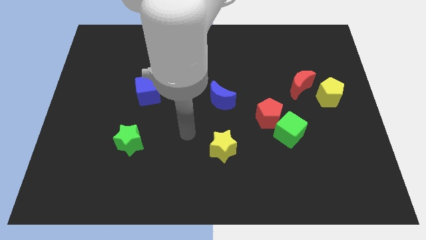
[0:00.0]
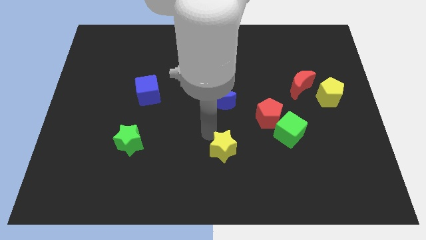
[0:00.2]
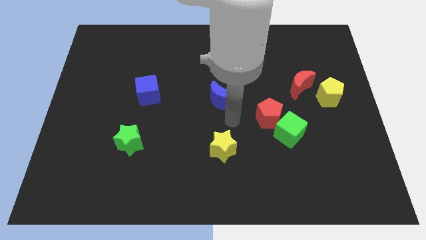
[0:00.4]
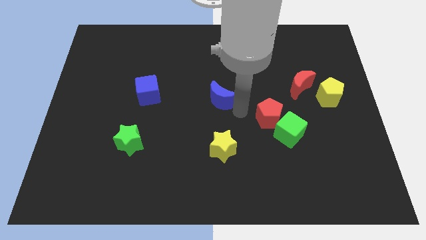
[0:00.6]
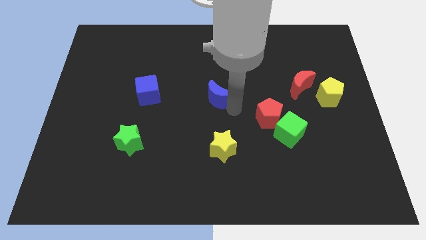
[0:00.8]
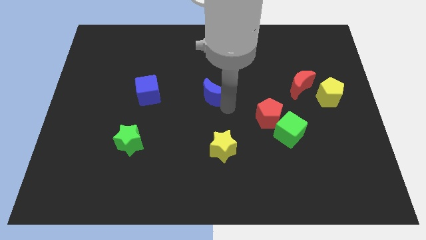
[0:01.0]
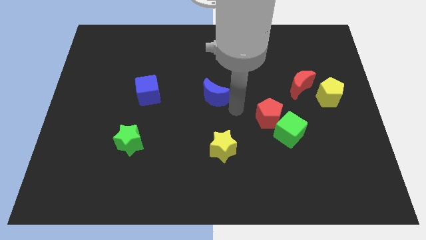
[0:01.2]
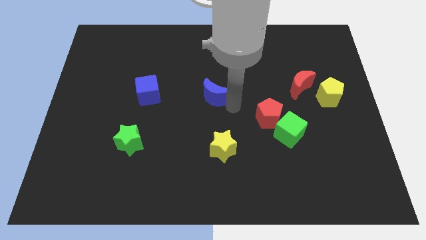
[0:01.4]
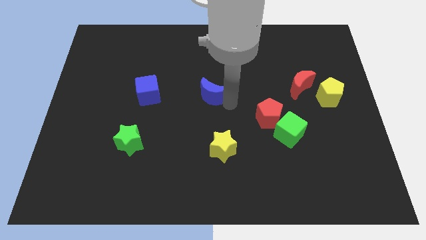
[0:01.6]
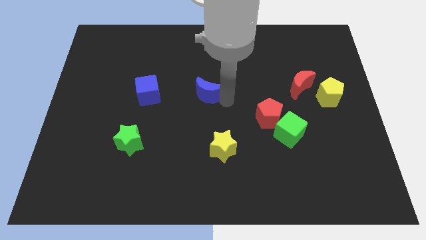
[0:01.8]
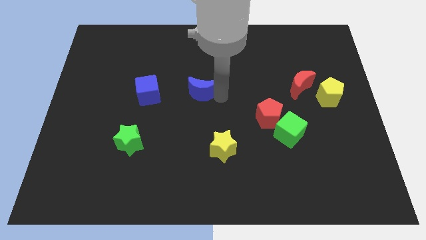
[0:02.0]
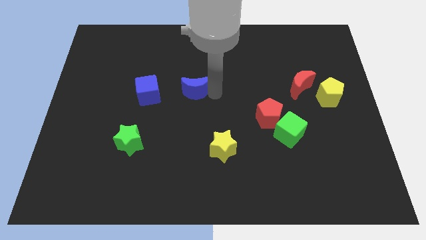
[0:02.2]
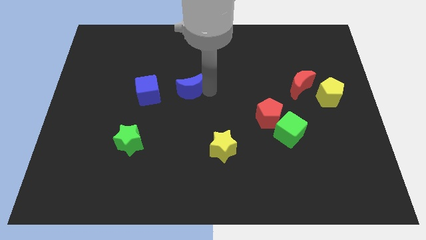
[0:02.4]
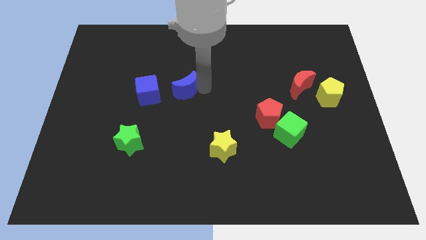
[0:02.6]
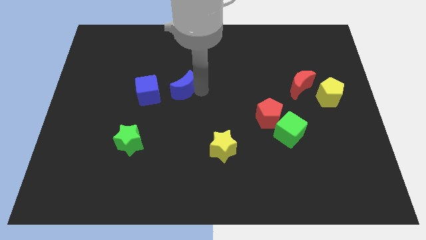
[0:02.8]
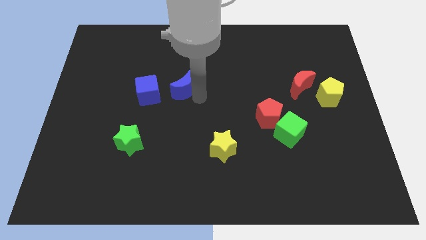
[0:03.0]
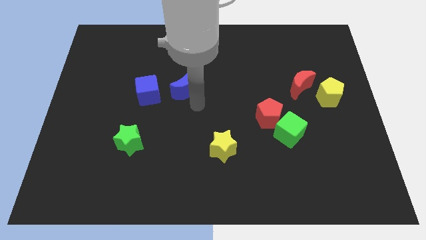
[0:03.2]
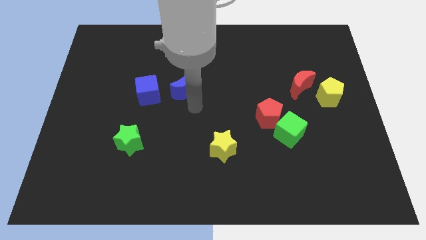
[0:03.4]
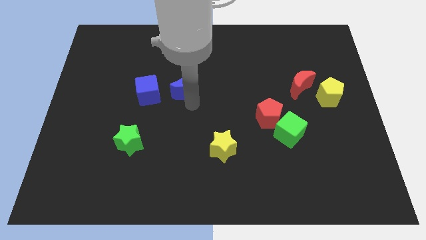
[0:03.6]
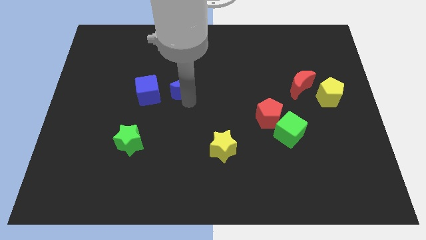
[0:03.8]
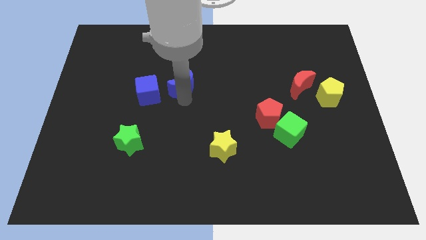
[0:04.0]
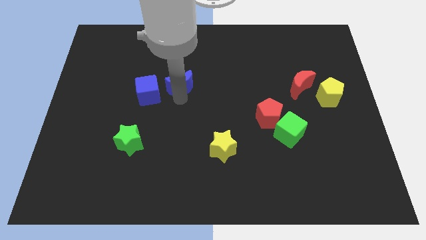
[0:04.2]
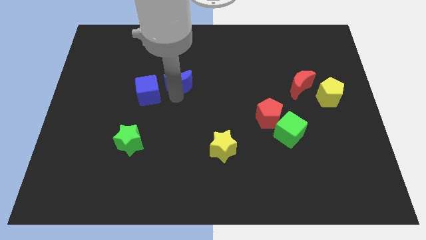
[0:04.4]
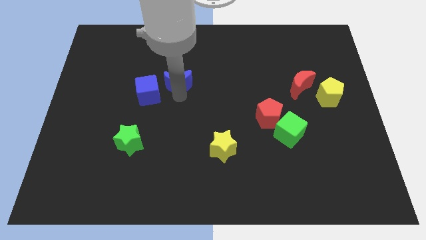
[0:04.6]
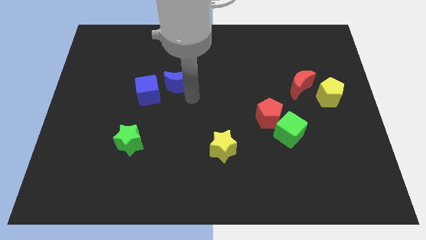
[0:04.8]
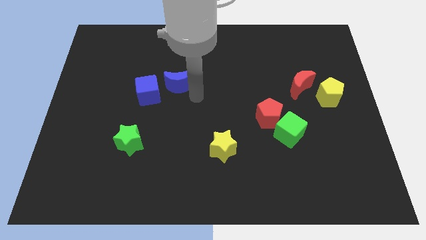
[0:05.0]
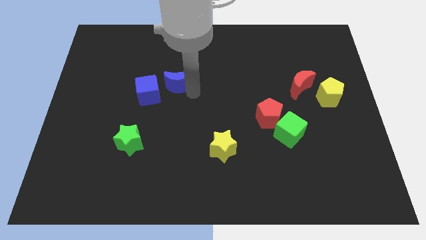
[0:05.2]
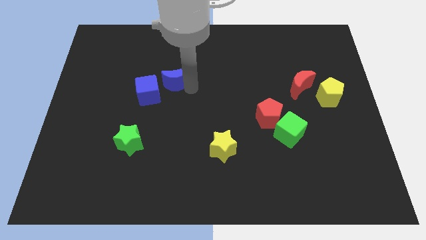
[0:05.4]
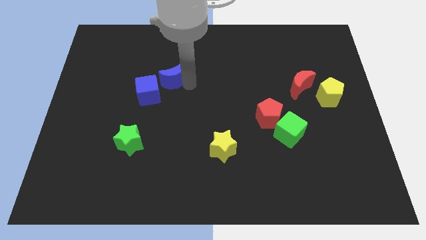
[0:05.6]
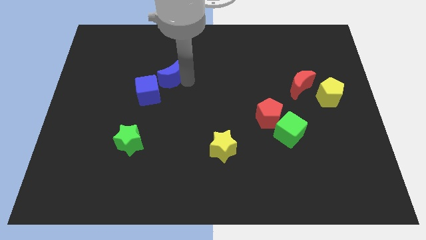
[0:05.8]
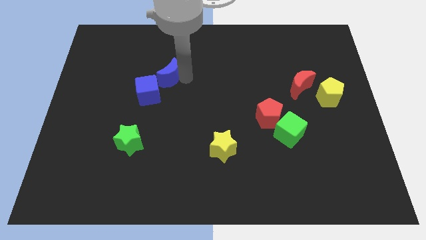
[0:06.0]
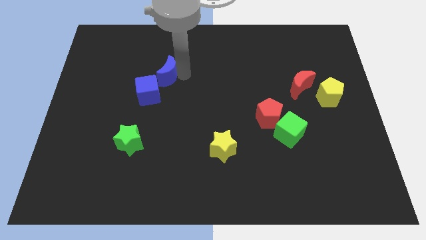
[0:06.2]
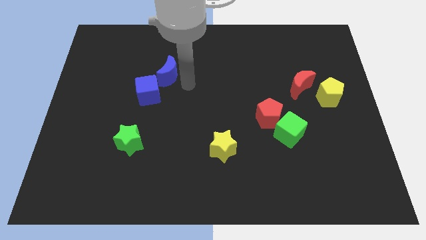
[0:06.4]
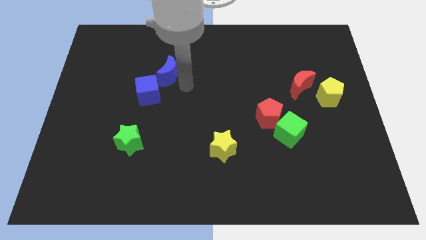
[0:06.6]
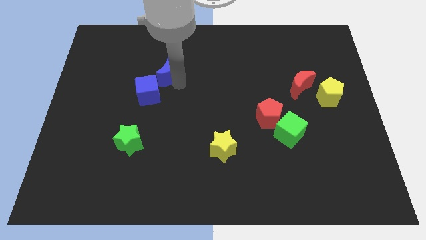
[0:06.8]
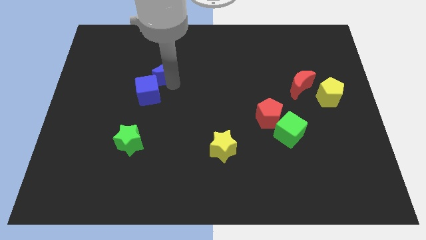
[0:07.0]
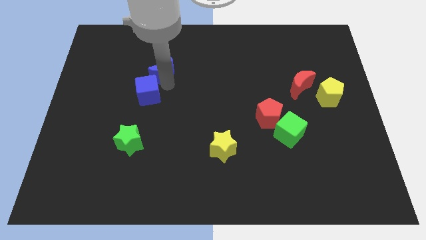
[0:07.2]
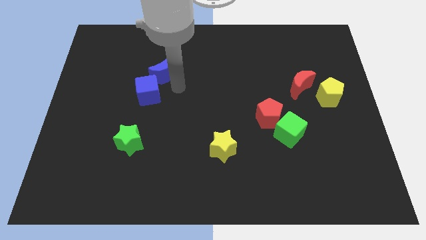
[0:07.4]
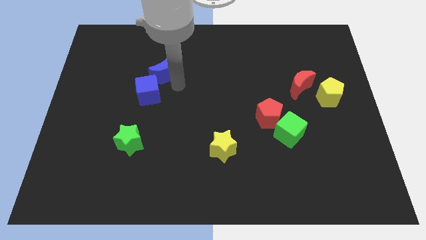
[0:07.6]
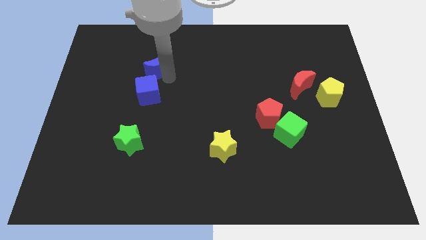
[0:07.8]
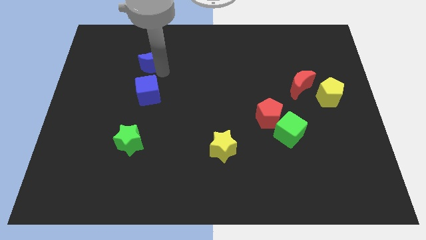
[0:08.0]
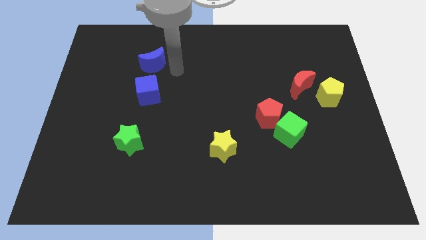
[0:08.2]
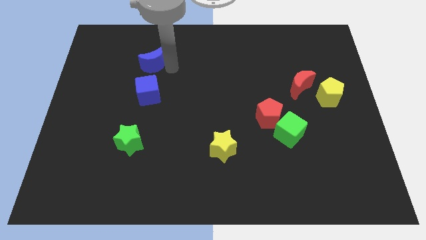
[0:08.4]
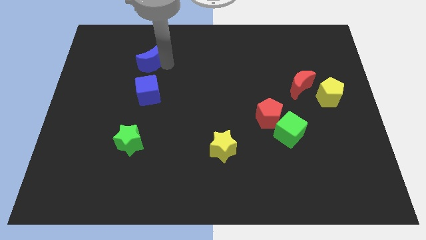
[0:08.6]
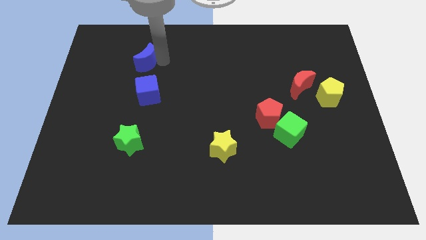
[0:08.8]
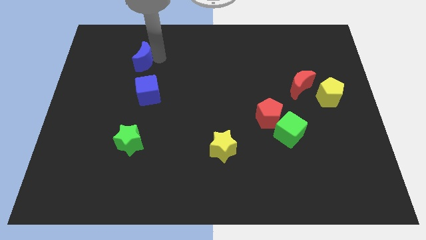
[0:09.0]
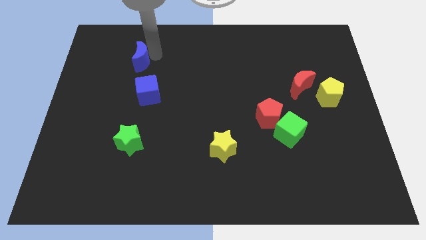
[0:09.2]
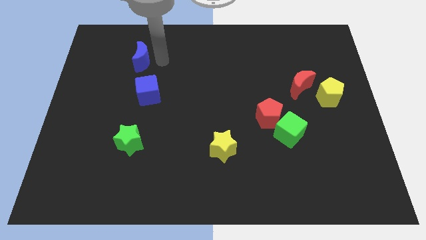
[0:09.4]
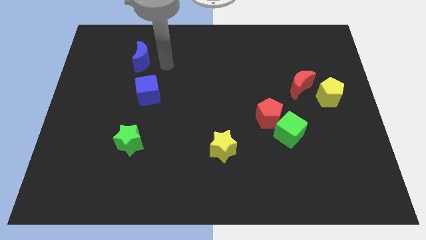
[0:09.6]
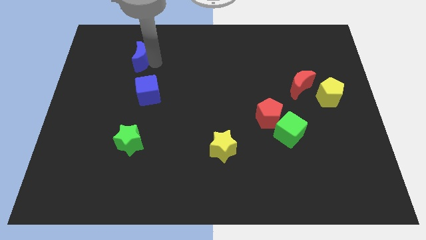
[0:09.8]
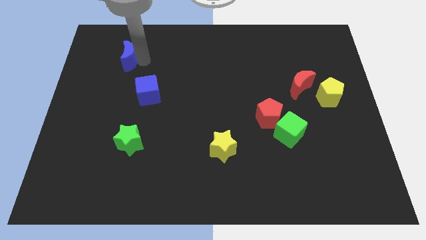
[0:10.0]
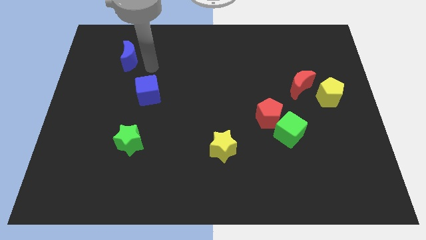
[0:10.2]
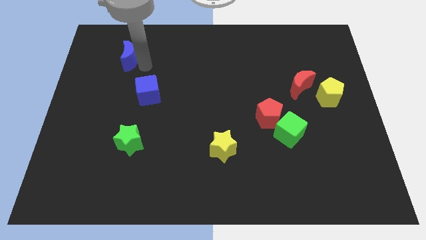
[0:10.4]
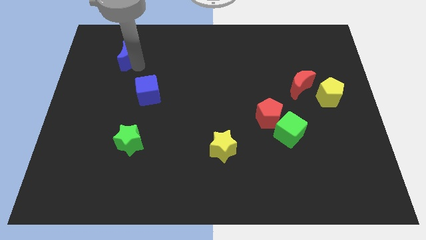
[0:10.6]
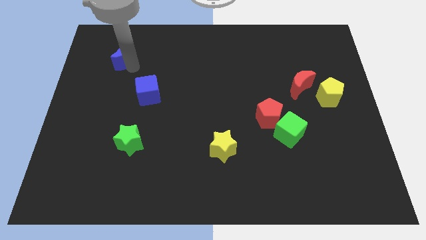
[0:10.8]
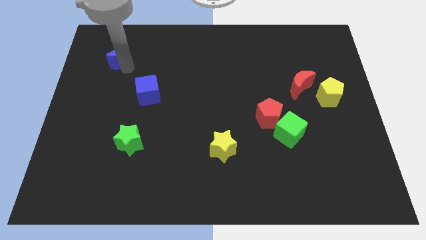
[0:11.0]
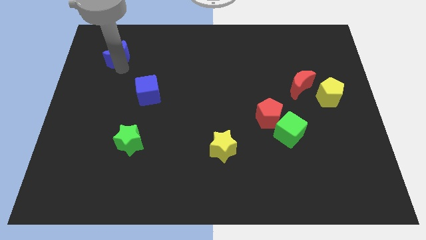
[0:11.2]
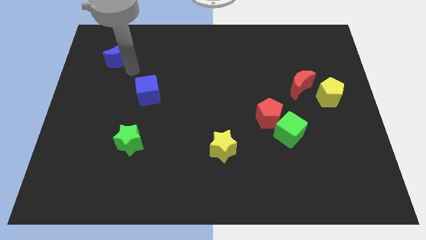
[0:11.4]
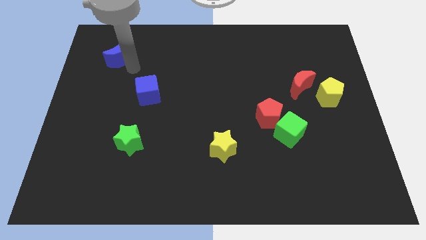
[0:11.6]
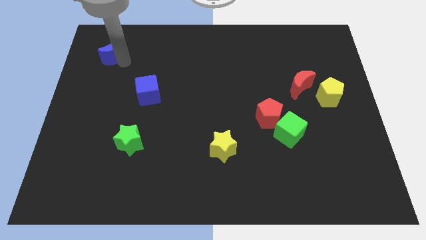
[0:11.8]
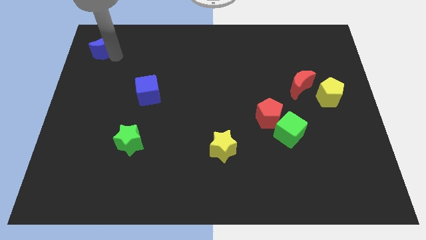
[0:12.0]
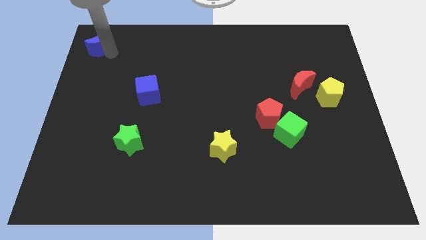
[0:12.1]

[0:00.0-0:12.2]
slide the blue moon to the top left

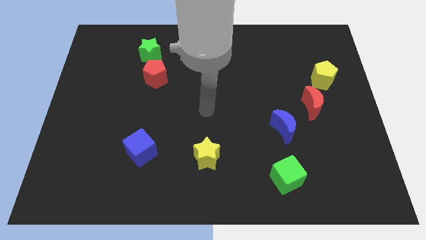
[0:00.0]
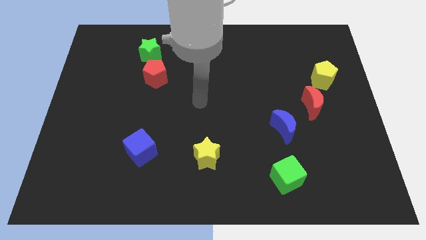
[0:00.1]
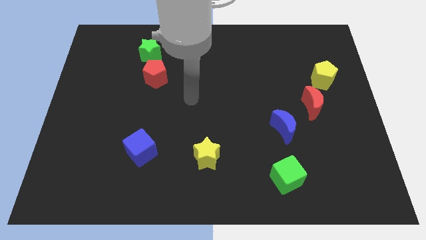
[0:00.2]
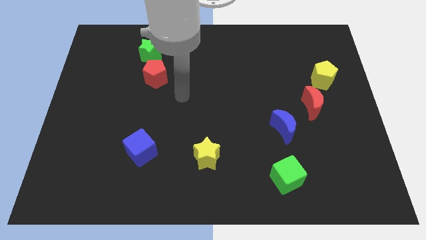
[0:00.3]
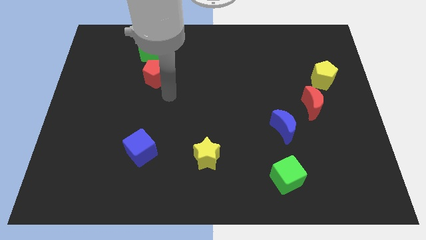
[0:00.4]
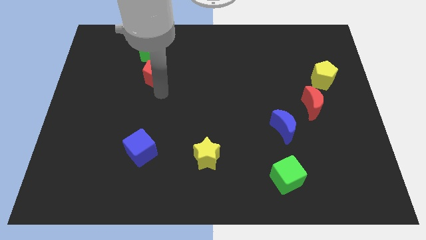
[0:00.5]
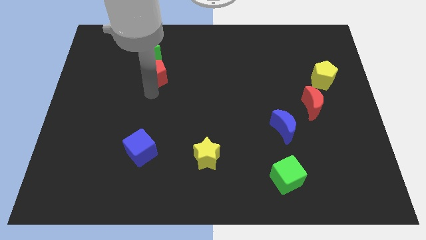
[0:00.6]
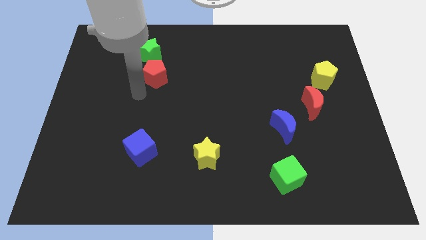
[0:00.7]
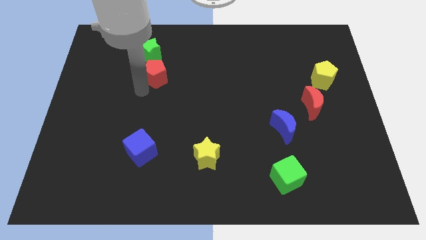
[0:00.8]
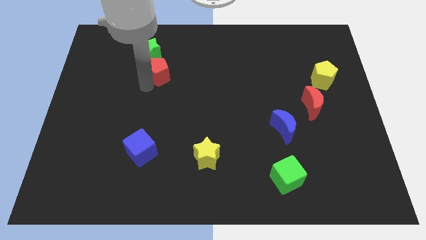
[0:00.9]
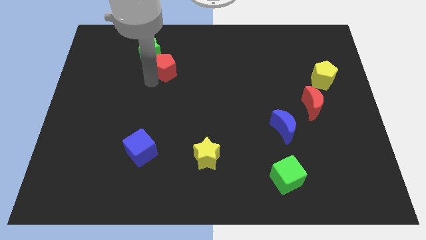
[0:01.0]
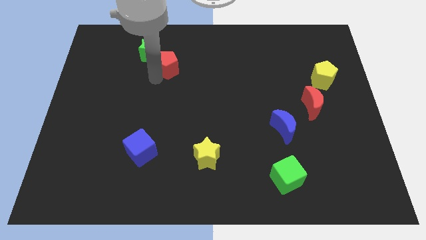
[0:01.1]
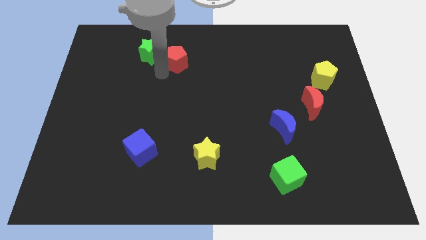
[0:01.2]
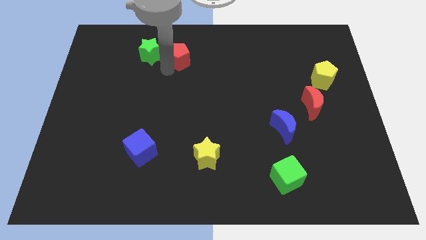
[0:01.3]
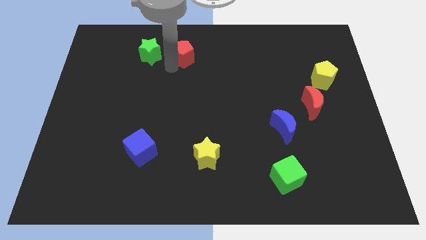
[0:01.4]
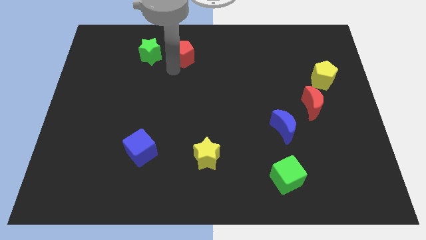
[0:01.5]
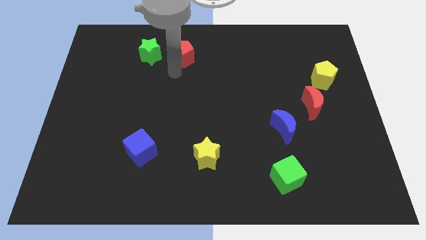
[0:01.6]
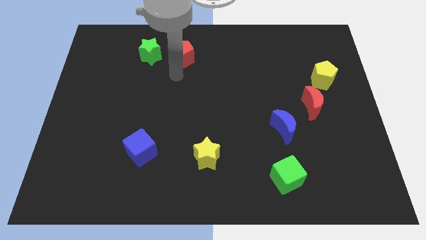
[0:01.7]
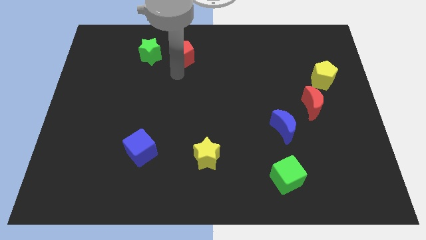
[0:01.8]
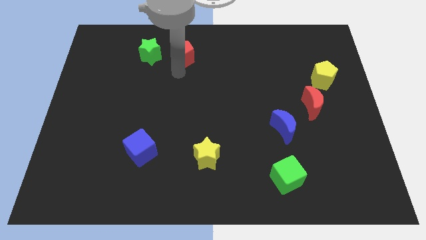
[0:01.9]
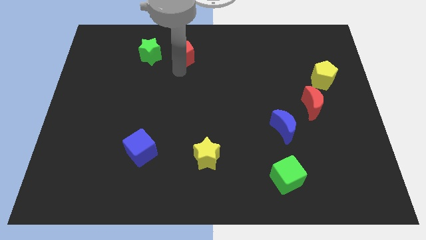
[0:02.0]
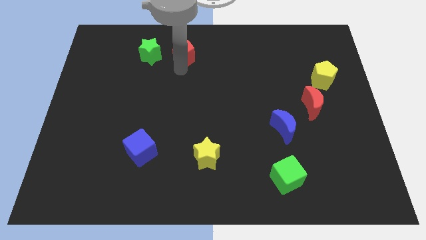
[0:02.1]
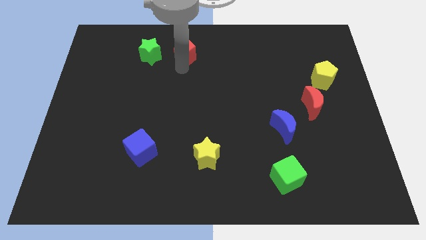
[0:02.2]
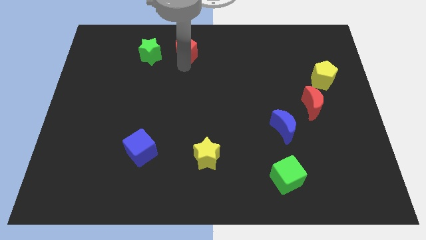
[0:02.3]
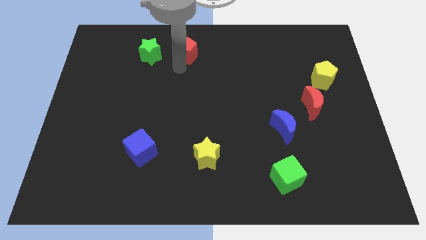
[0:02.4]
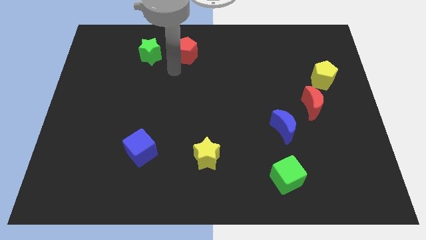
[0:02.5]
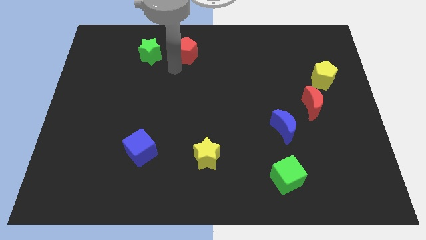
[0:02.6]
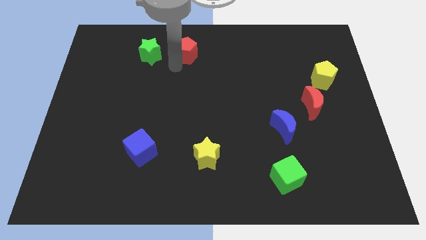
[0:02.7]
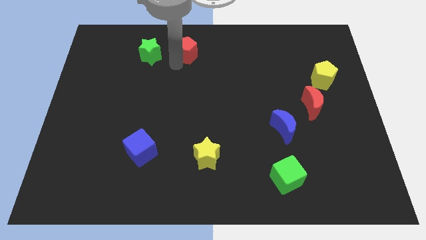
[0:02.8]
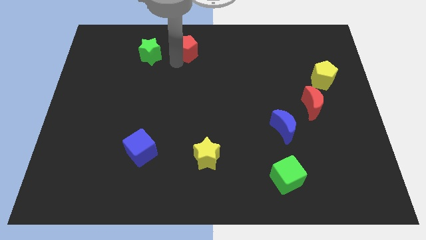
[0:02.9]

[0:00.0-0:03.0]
push the red pentagon to the towards your base
